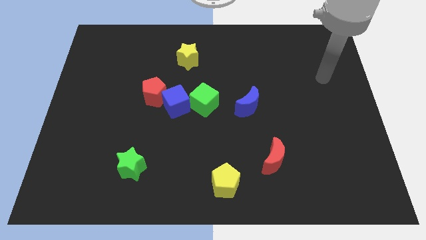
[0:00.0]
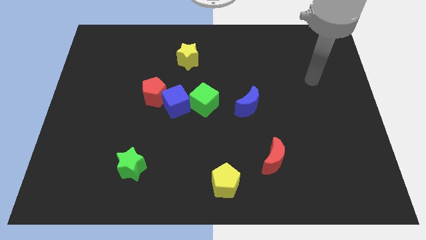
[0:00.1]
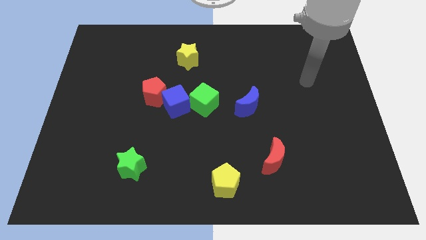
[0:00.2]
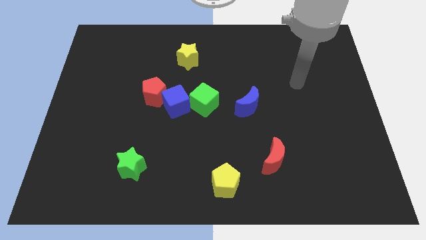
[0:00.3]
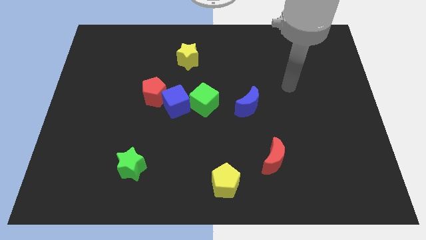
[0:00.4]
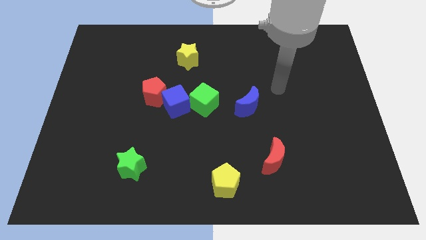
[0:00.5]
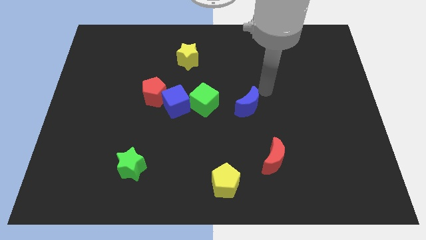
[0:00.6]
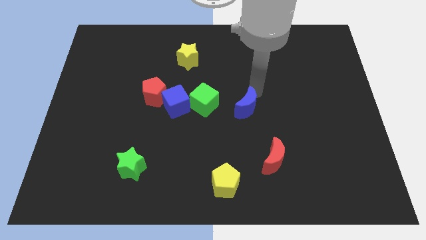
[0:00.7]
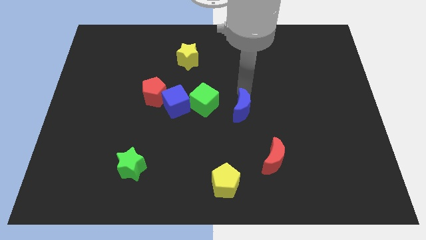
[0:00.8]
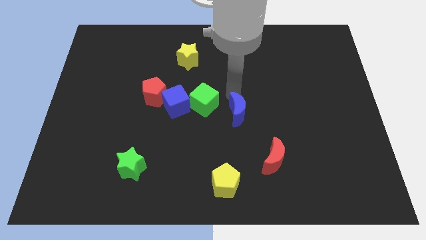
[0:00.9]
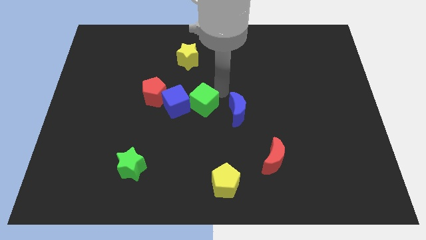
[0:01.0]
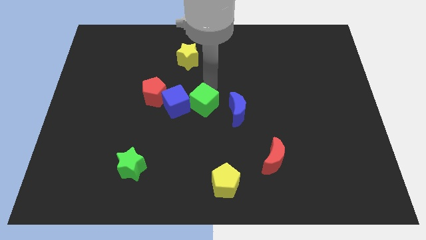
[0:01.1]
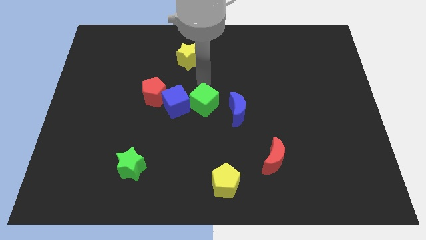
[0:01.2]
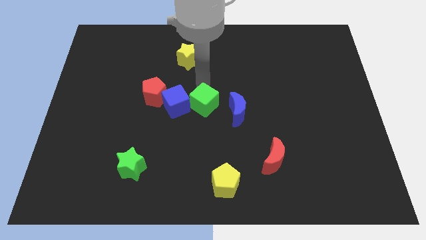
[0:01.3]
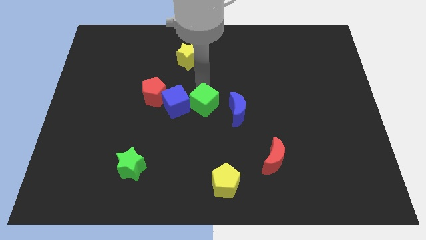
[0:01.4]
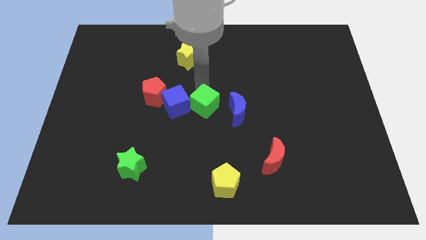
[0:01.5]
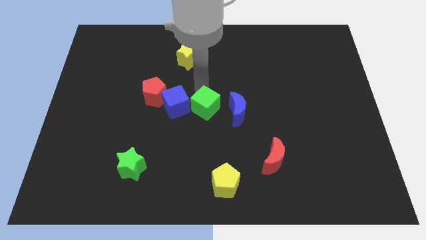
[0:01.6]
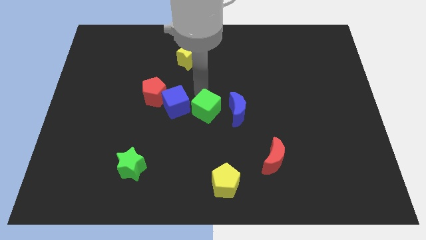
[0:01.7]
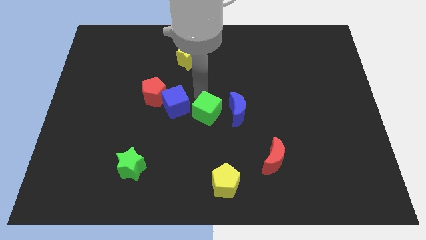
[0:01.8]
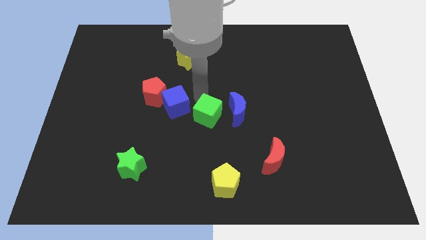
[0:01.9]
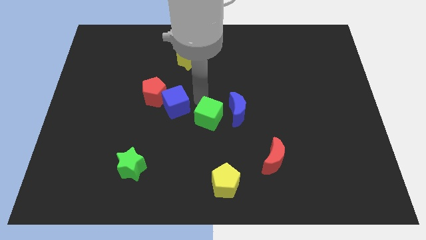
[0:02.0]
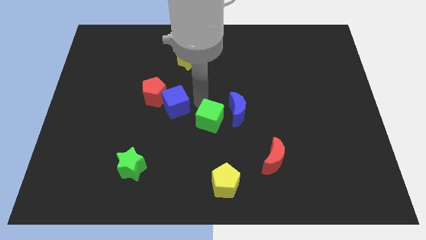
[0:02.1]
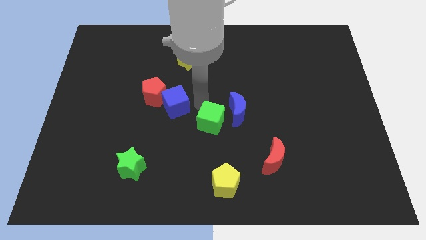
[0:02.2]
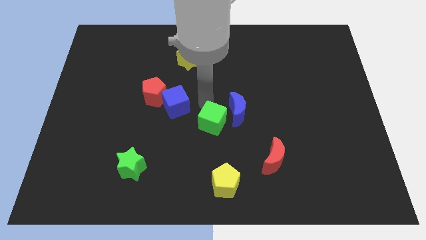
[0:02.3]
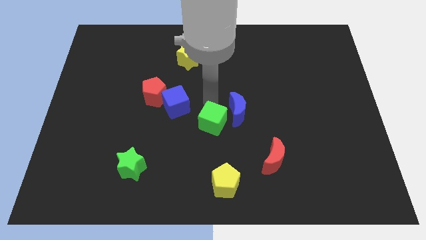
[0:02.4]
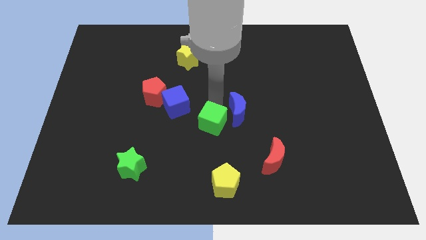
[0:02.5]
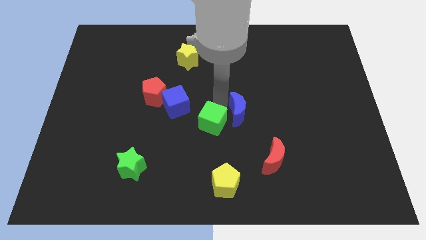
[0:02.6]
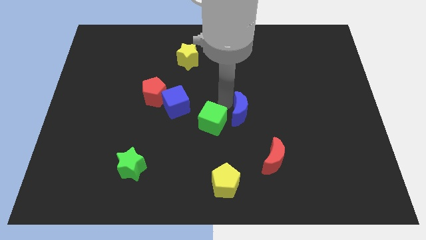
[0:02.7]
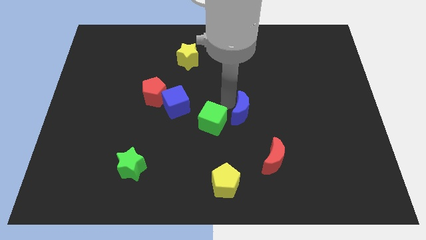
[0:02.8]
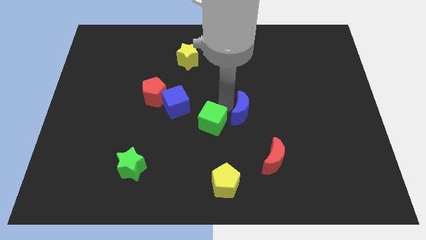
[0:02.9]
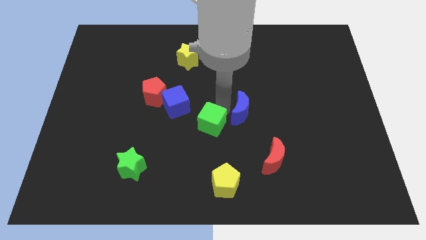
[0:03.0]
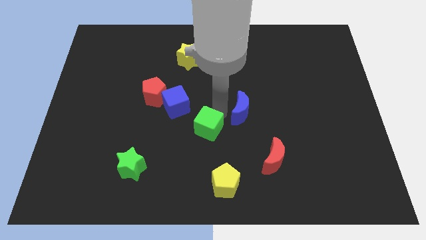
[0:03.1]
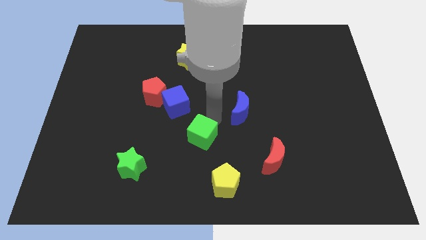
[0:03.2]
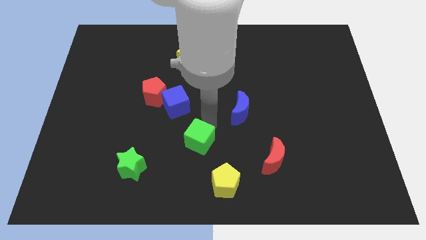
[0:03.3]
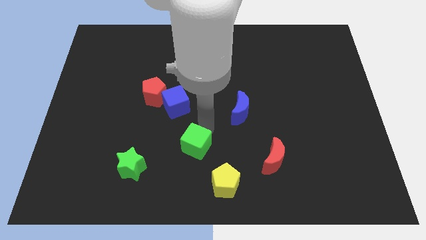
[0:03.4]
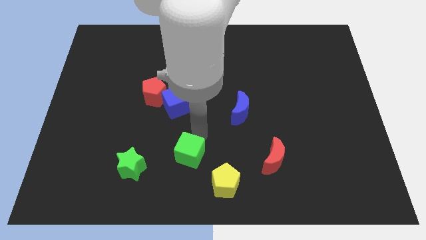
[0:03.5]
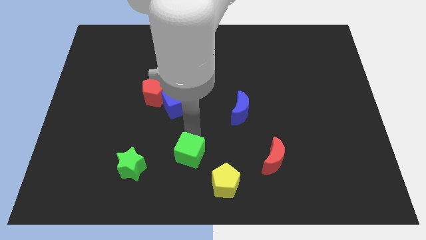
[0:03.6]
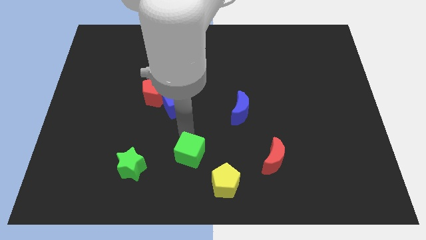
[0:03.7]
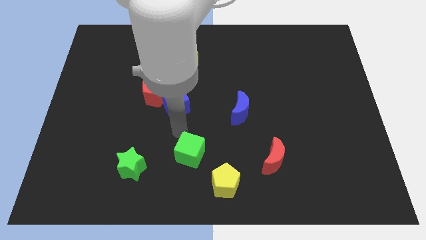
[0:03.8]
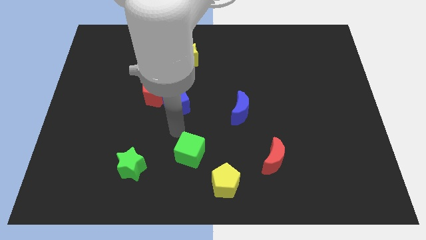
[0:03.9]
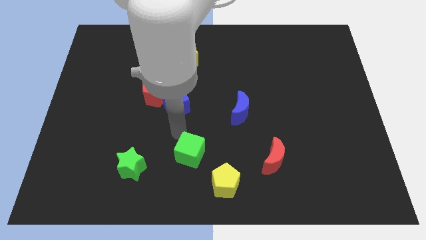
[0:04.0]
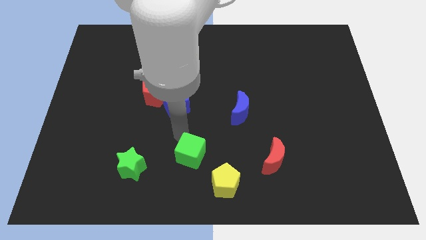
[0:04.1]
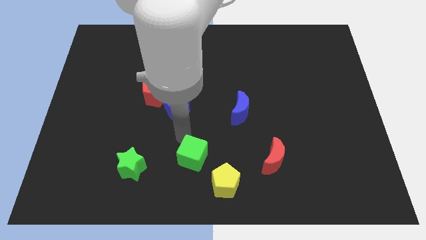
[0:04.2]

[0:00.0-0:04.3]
move the green cube to the bottom

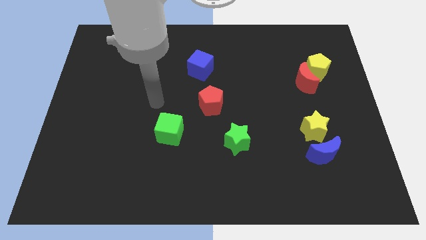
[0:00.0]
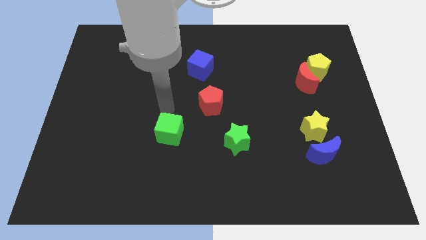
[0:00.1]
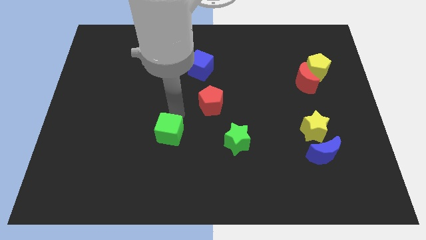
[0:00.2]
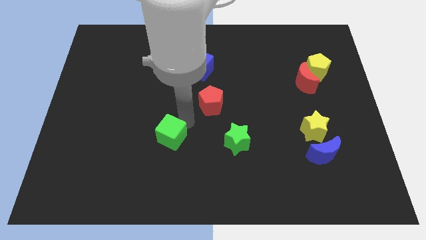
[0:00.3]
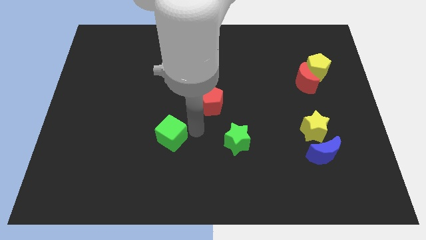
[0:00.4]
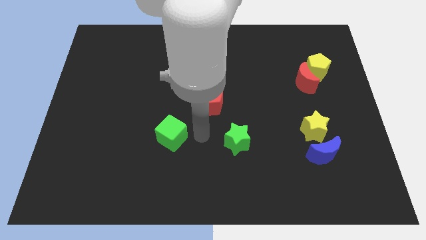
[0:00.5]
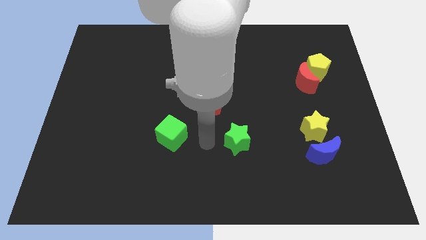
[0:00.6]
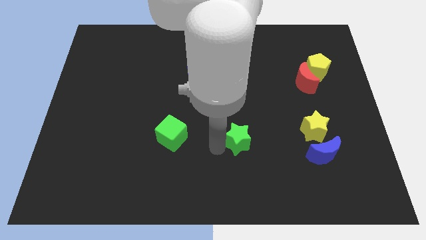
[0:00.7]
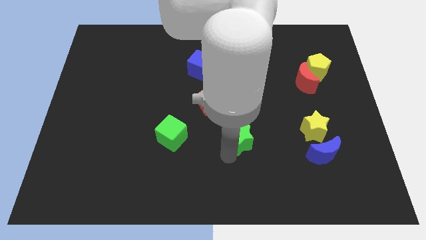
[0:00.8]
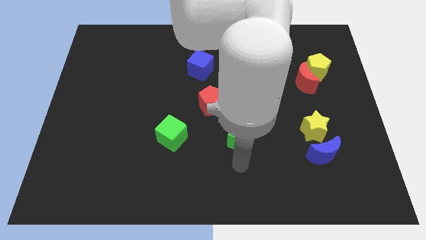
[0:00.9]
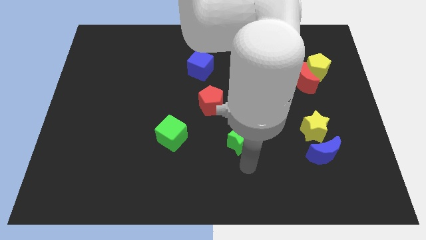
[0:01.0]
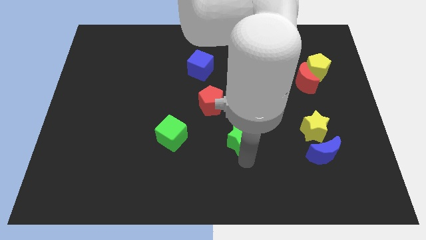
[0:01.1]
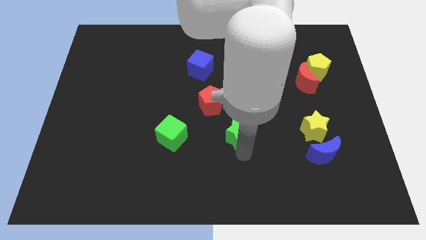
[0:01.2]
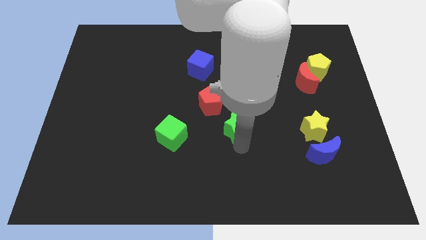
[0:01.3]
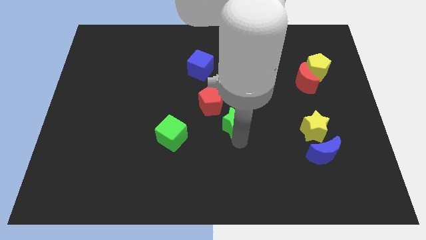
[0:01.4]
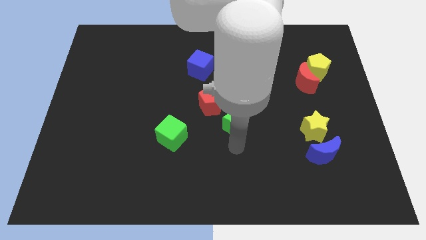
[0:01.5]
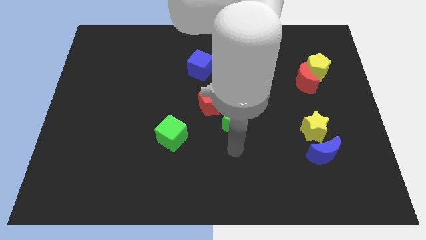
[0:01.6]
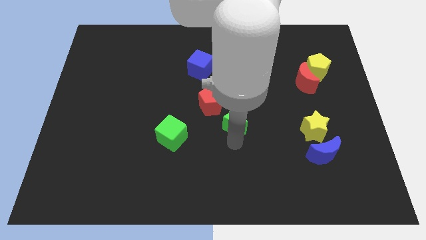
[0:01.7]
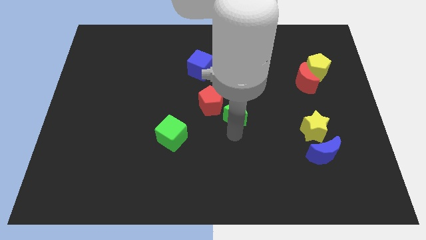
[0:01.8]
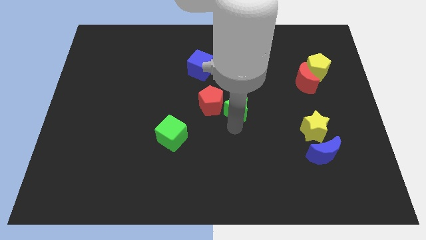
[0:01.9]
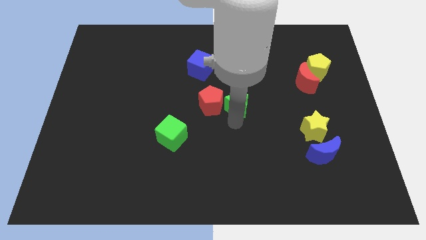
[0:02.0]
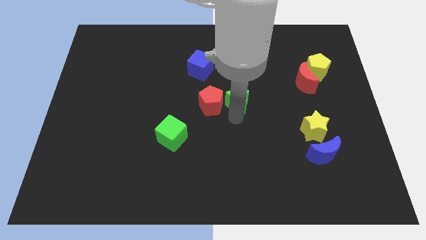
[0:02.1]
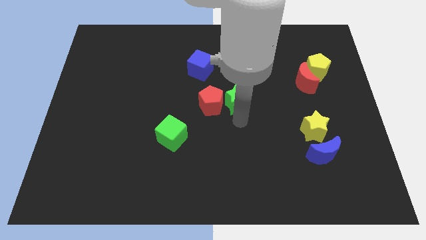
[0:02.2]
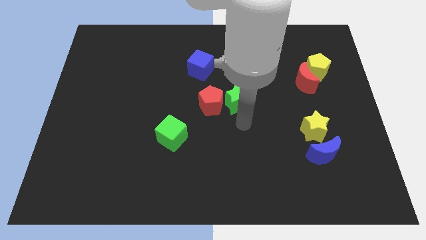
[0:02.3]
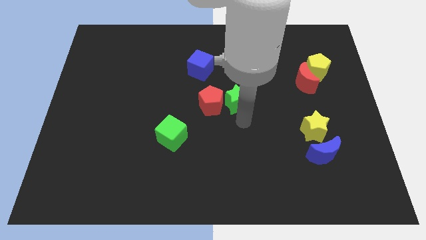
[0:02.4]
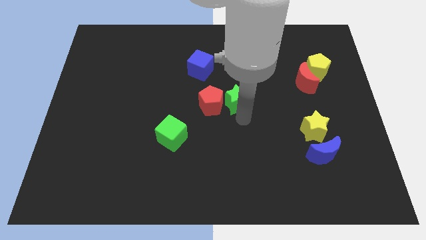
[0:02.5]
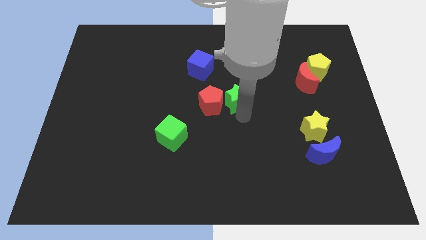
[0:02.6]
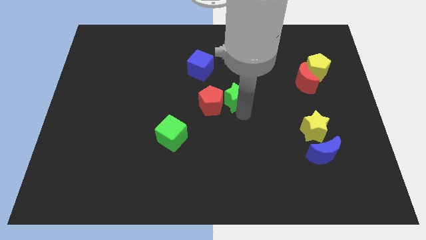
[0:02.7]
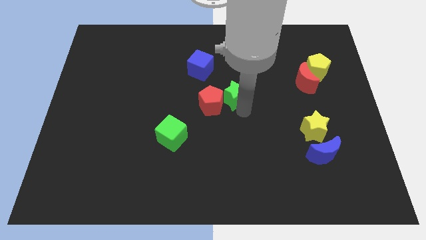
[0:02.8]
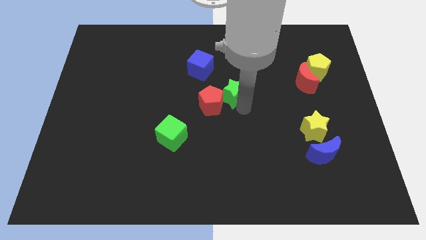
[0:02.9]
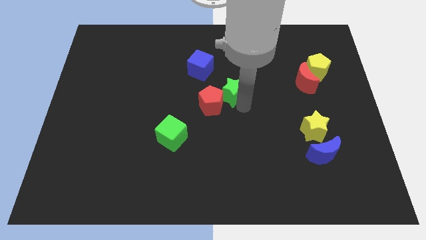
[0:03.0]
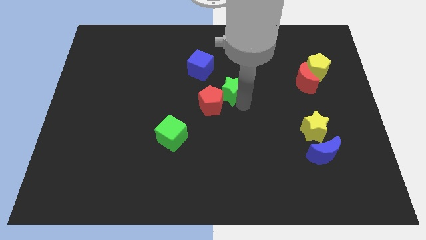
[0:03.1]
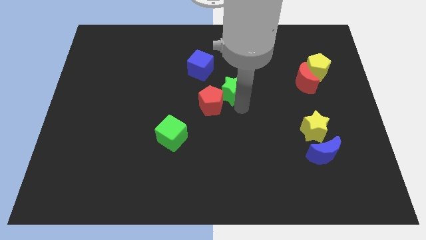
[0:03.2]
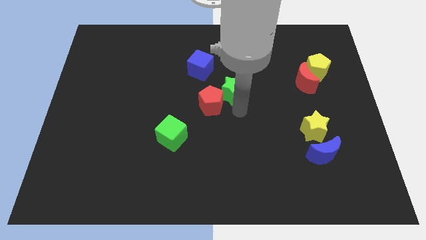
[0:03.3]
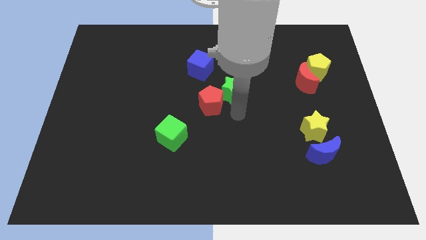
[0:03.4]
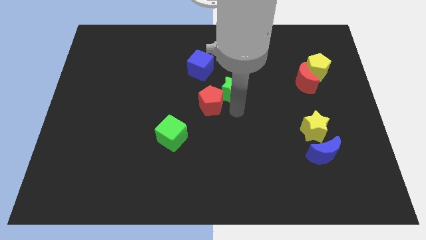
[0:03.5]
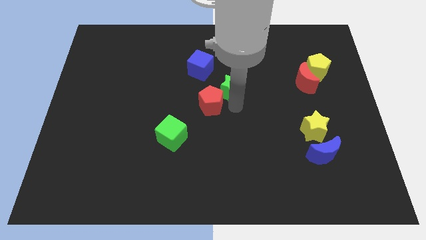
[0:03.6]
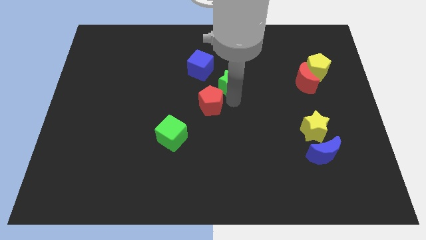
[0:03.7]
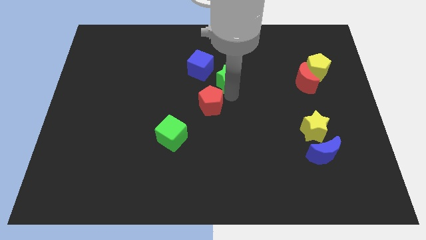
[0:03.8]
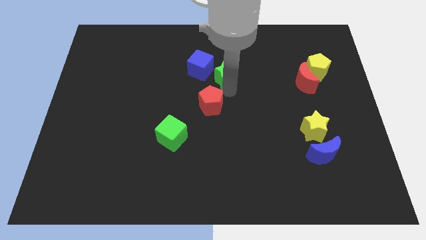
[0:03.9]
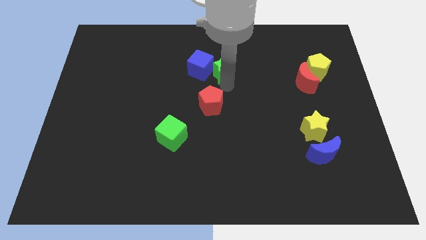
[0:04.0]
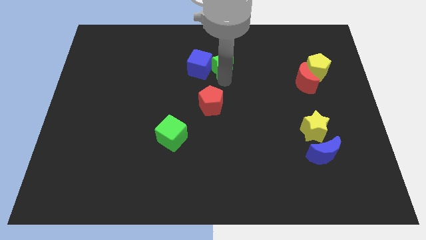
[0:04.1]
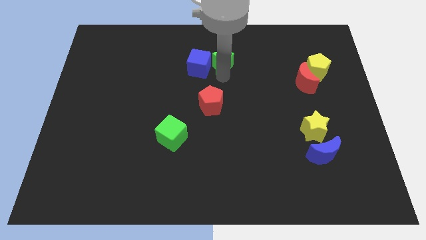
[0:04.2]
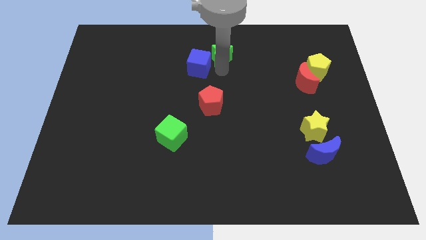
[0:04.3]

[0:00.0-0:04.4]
move the green star to the top
